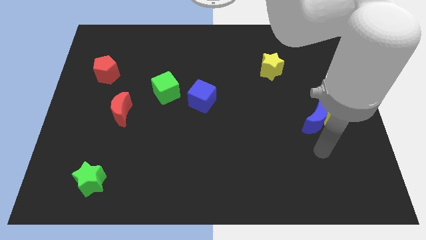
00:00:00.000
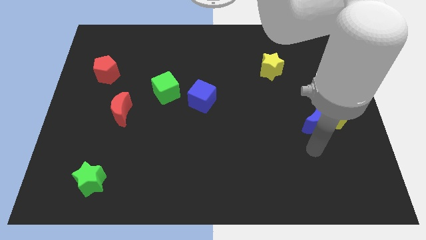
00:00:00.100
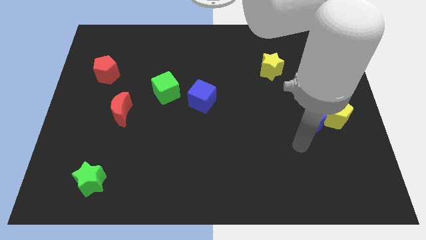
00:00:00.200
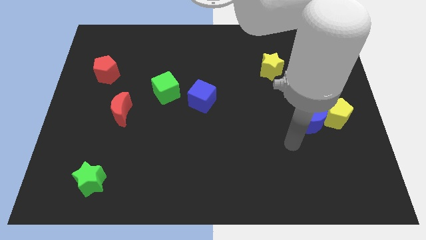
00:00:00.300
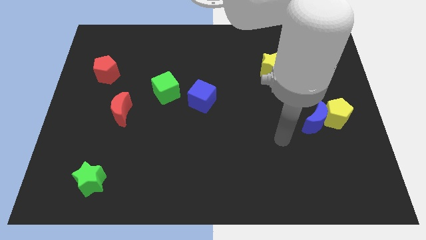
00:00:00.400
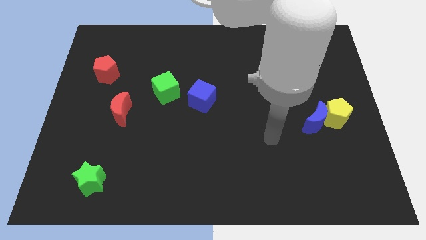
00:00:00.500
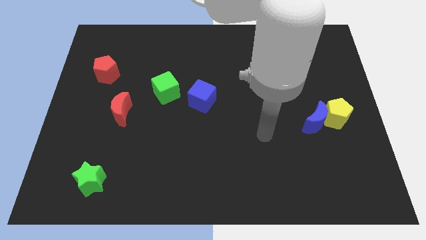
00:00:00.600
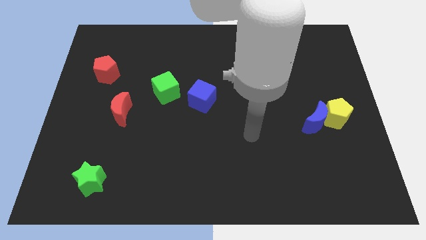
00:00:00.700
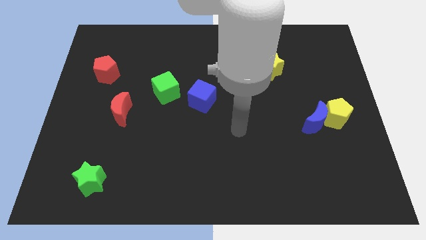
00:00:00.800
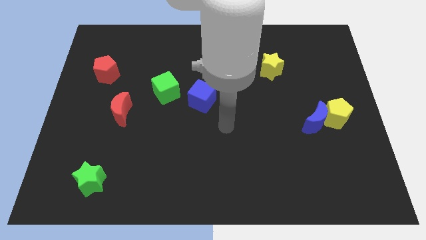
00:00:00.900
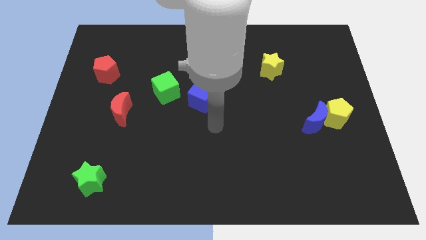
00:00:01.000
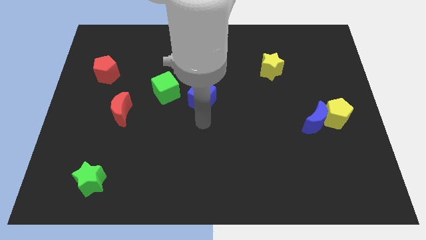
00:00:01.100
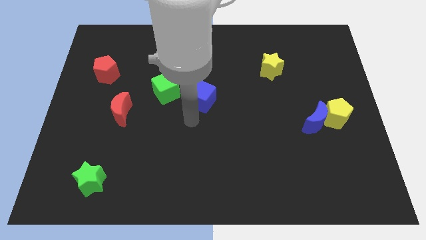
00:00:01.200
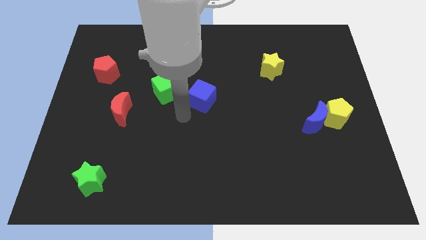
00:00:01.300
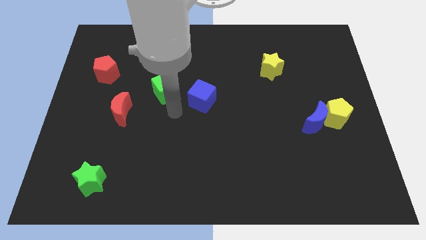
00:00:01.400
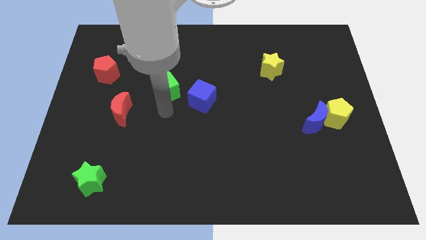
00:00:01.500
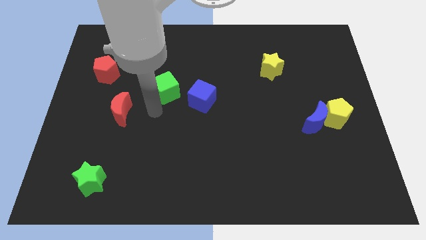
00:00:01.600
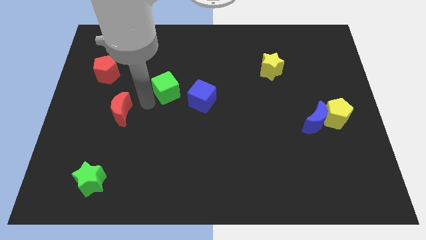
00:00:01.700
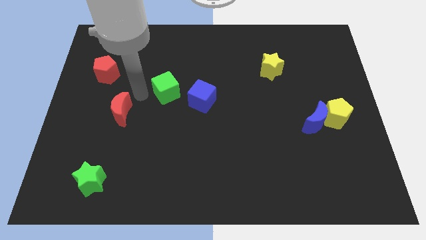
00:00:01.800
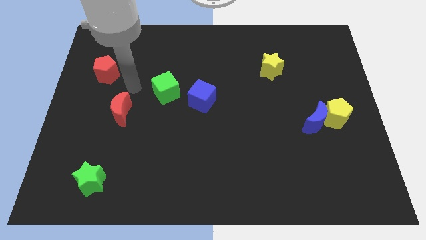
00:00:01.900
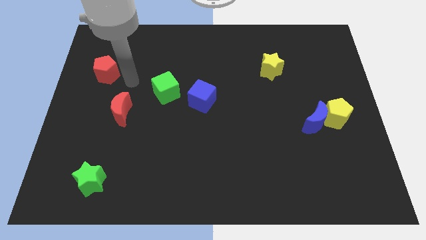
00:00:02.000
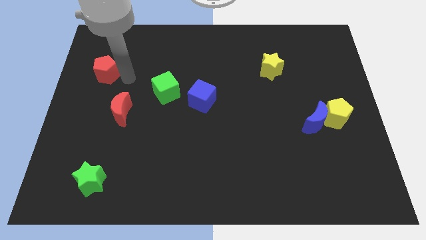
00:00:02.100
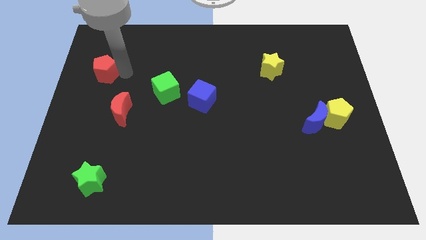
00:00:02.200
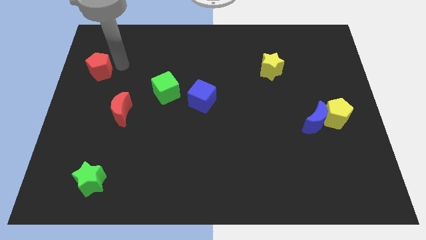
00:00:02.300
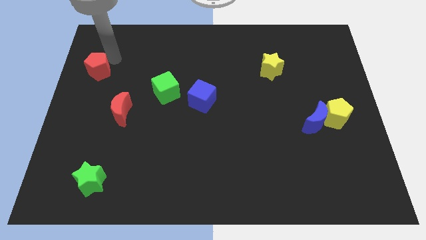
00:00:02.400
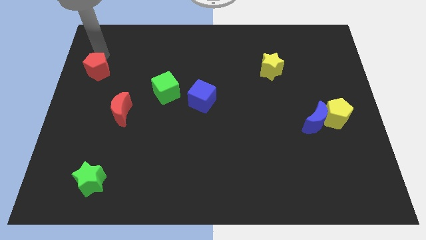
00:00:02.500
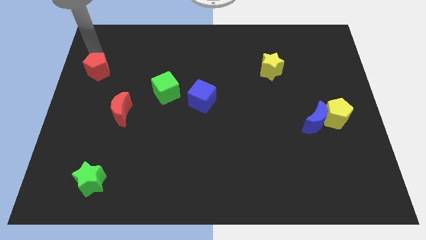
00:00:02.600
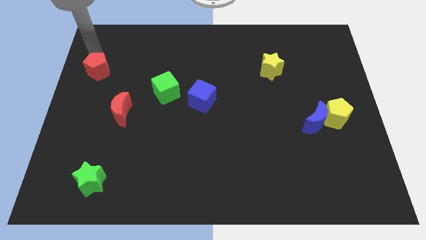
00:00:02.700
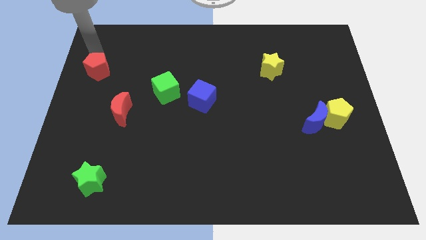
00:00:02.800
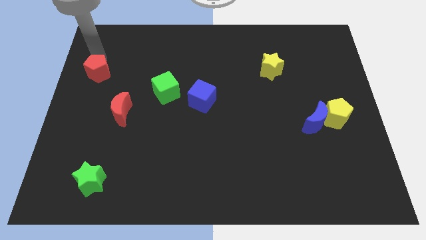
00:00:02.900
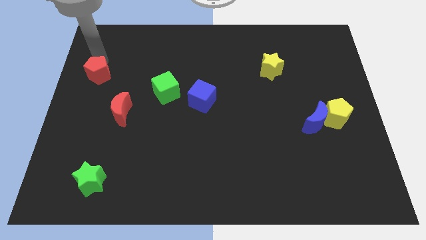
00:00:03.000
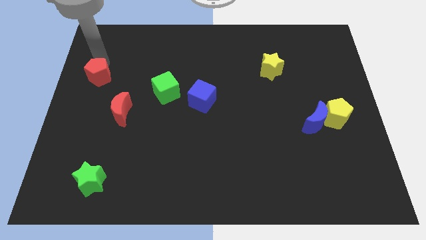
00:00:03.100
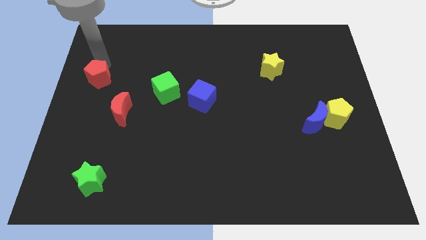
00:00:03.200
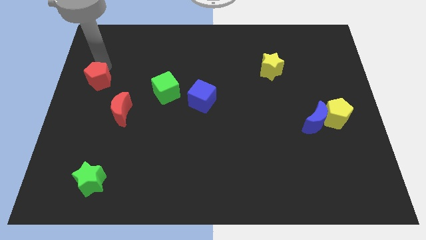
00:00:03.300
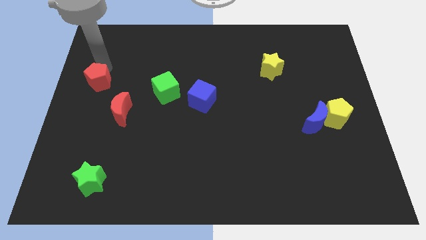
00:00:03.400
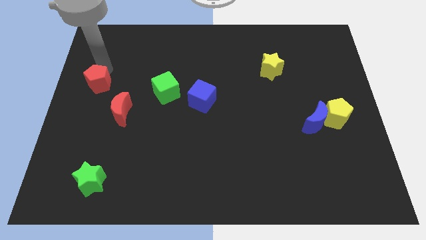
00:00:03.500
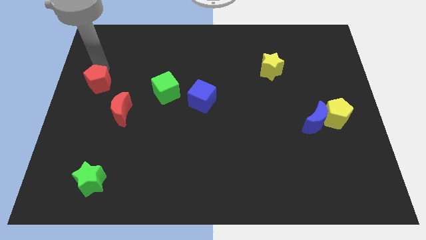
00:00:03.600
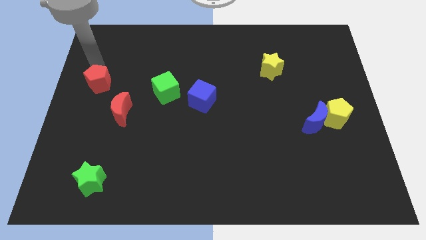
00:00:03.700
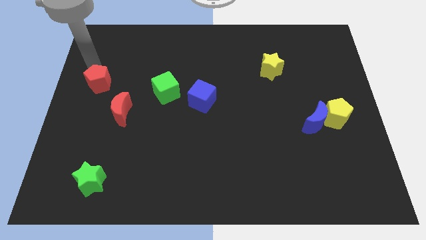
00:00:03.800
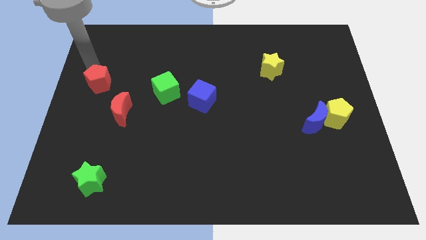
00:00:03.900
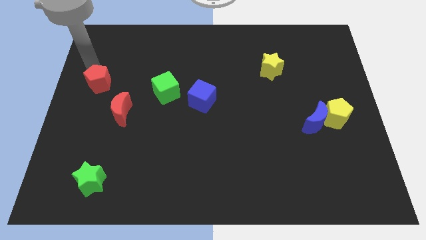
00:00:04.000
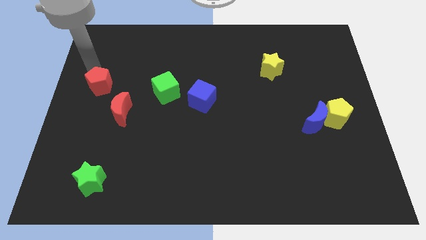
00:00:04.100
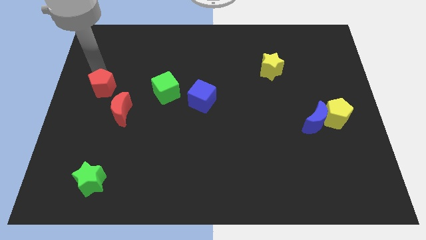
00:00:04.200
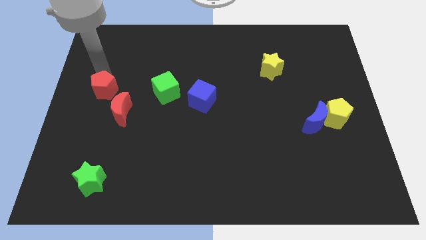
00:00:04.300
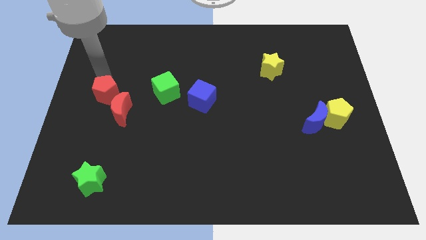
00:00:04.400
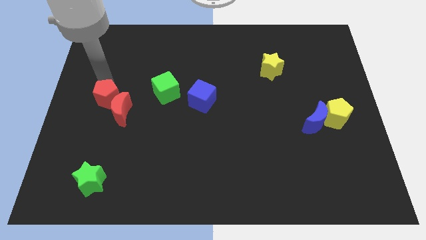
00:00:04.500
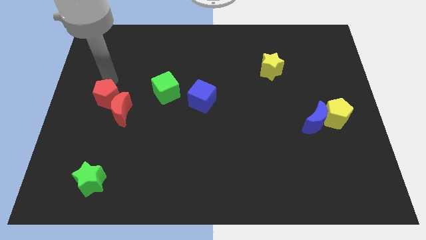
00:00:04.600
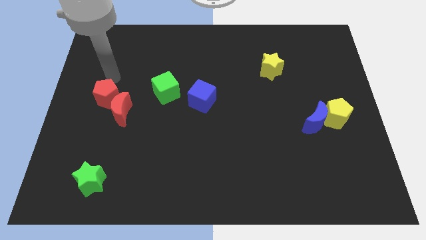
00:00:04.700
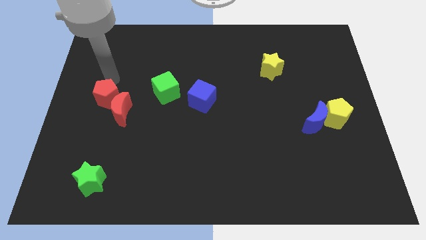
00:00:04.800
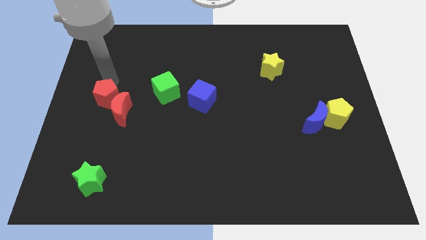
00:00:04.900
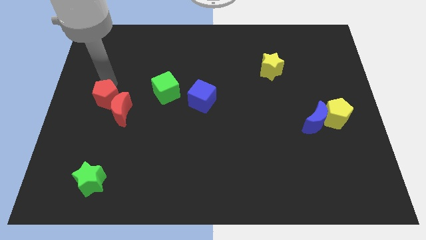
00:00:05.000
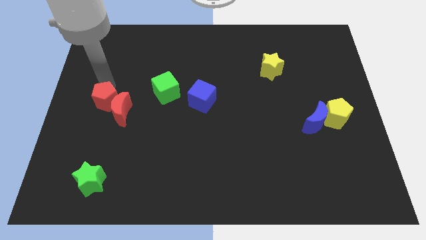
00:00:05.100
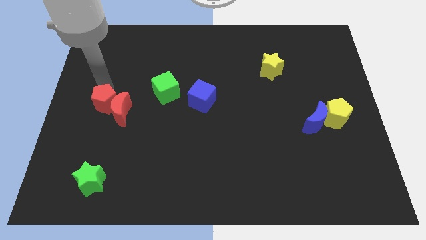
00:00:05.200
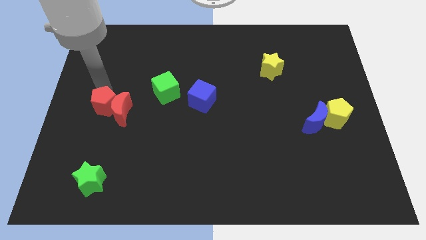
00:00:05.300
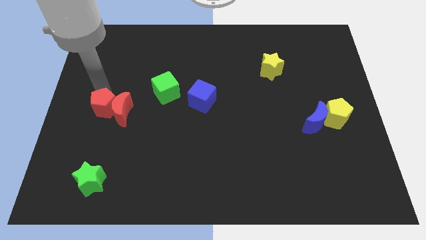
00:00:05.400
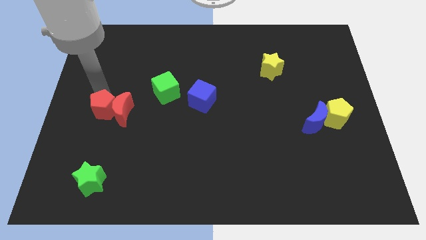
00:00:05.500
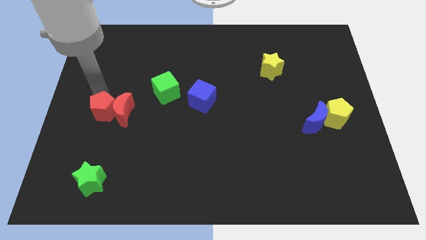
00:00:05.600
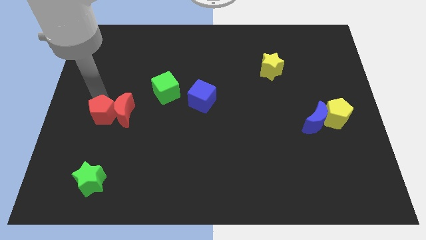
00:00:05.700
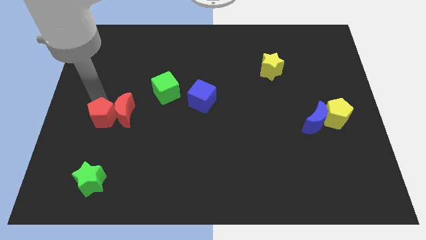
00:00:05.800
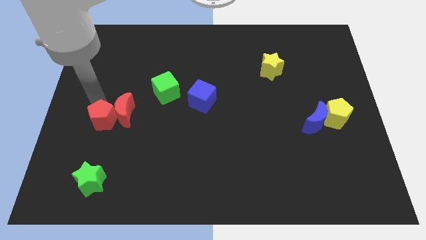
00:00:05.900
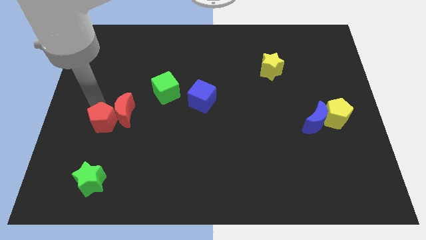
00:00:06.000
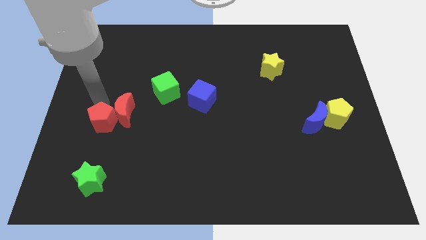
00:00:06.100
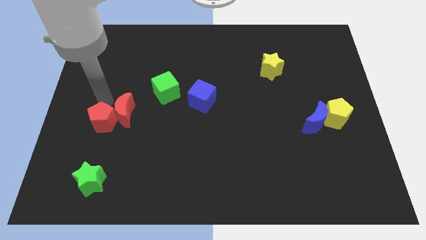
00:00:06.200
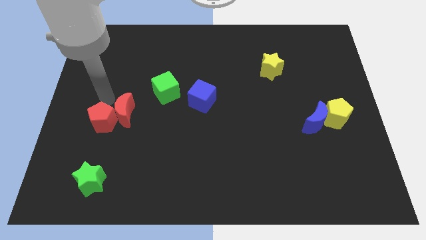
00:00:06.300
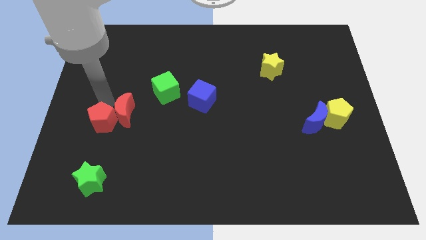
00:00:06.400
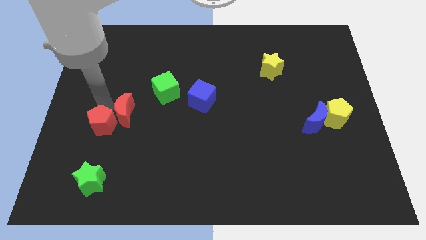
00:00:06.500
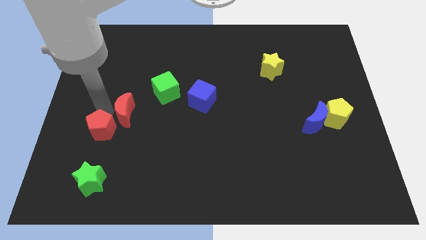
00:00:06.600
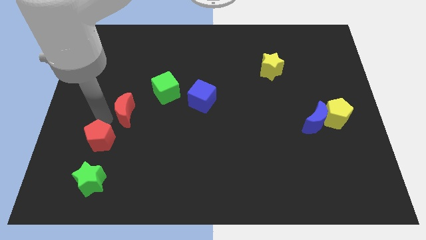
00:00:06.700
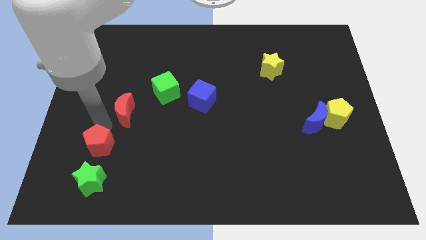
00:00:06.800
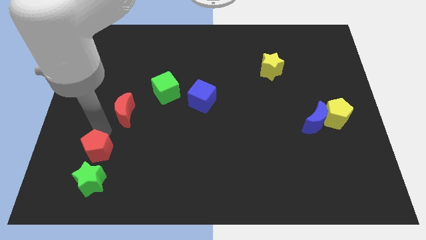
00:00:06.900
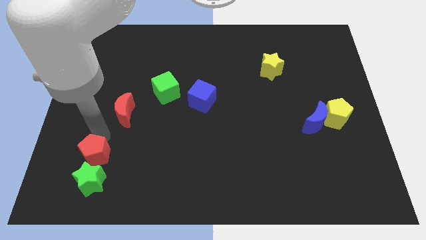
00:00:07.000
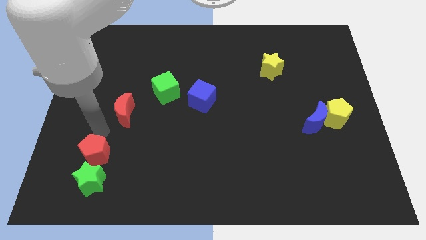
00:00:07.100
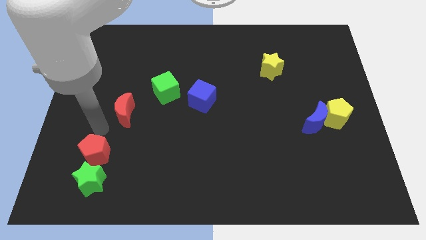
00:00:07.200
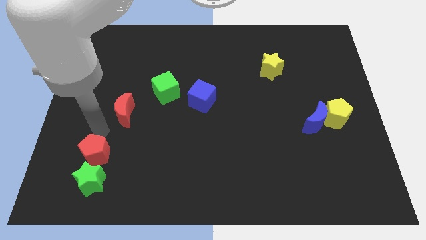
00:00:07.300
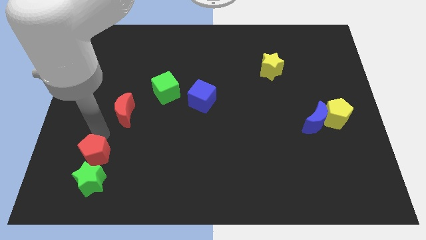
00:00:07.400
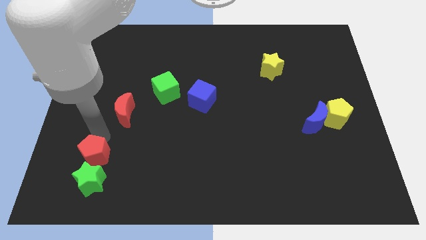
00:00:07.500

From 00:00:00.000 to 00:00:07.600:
put the red pentagon to the green star
